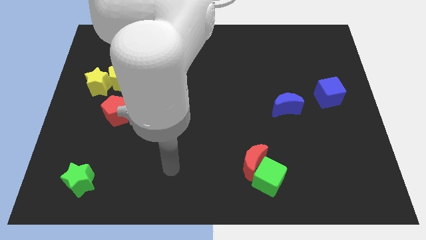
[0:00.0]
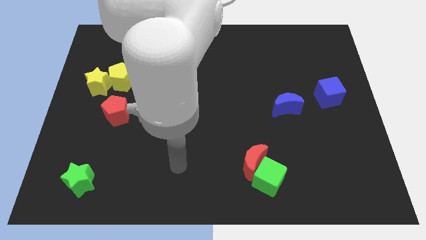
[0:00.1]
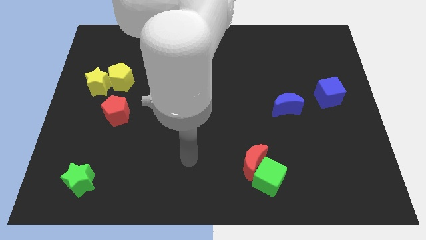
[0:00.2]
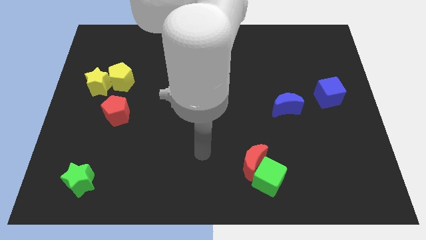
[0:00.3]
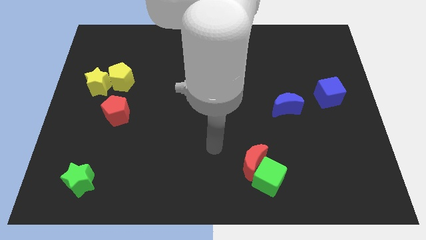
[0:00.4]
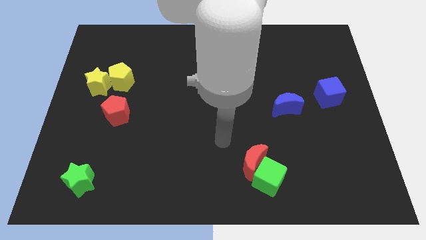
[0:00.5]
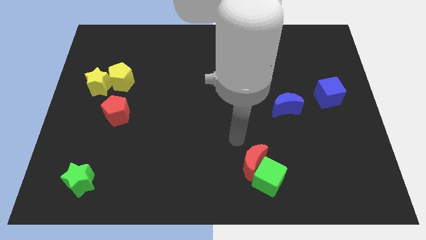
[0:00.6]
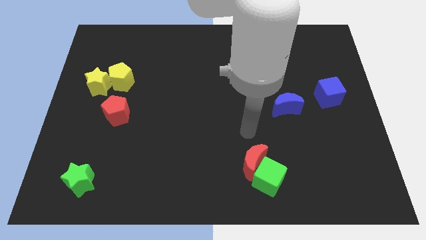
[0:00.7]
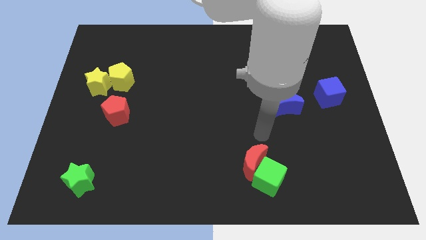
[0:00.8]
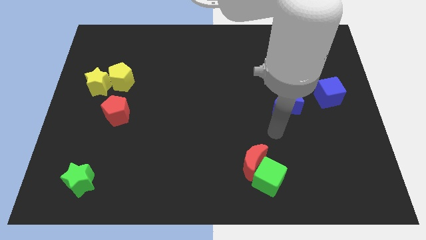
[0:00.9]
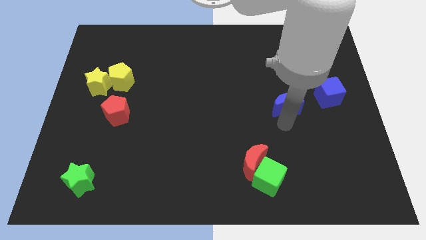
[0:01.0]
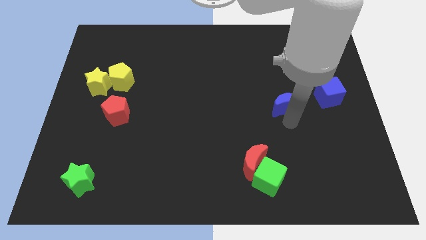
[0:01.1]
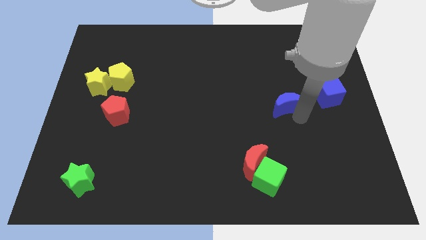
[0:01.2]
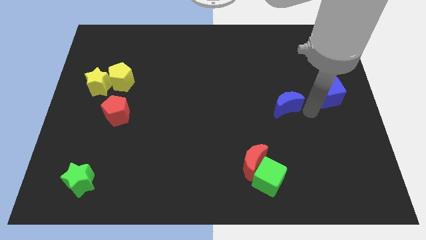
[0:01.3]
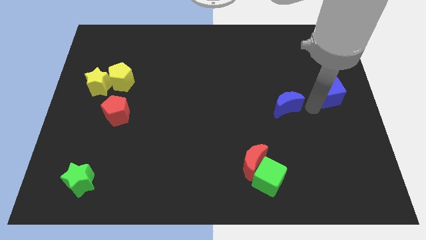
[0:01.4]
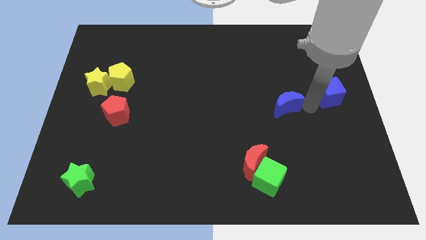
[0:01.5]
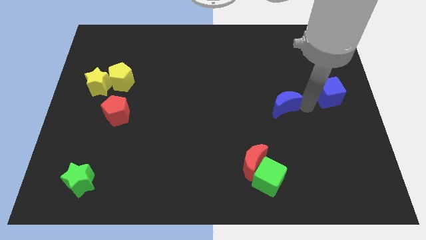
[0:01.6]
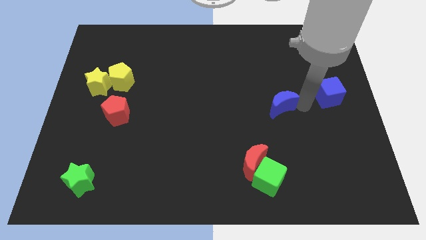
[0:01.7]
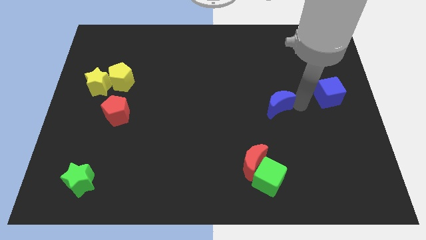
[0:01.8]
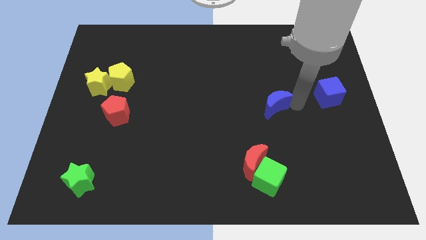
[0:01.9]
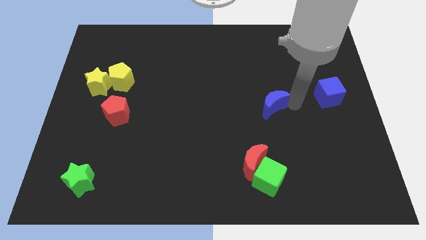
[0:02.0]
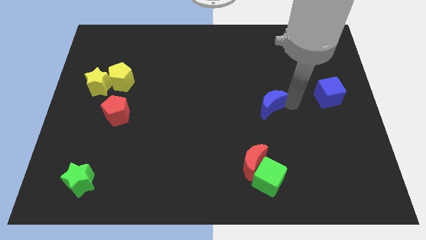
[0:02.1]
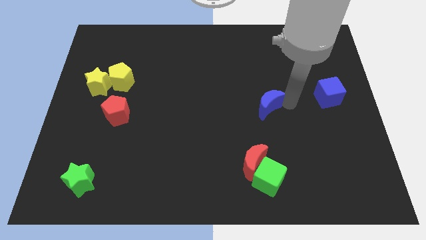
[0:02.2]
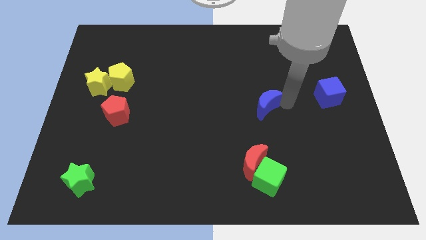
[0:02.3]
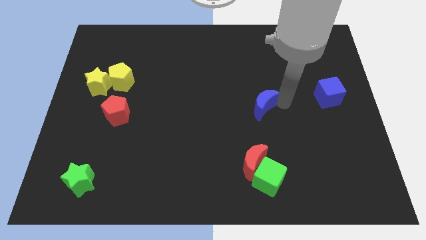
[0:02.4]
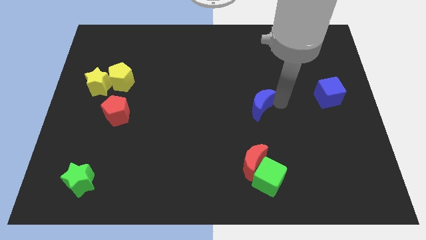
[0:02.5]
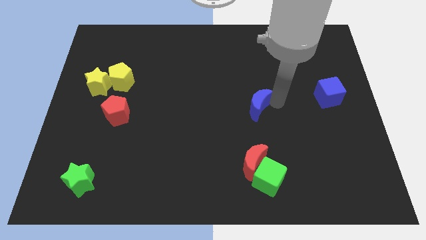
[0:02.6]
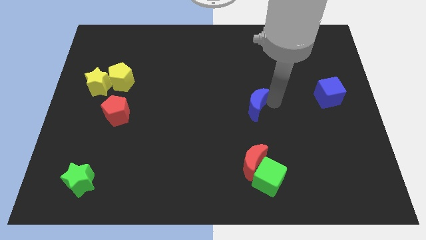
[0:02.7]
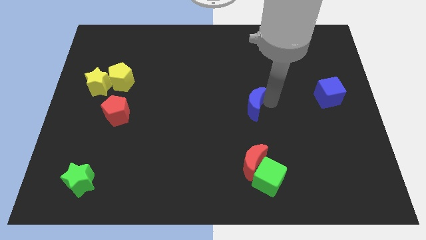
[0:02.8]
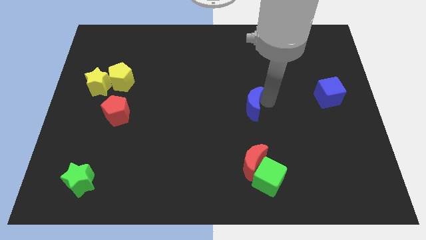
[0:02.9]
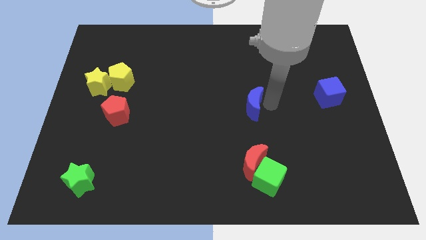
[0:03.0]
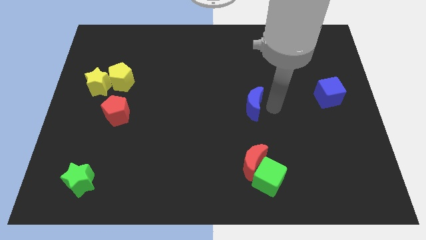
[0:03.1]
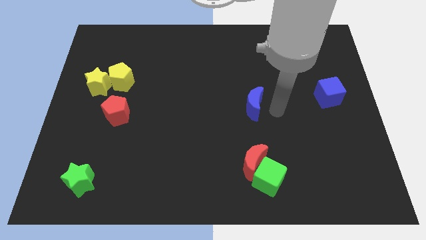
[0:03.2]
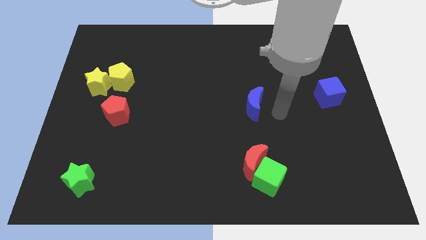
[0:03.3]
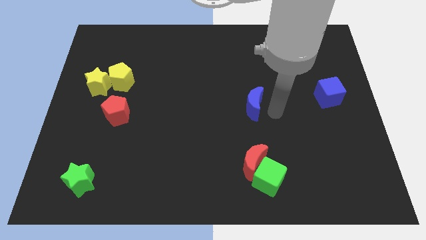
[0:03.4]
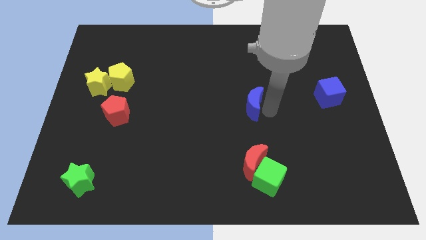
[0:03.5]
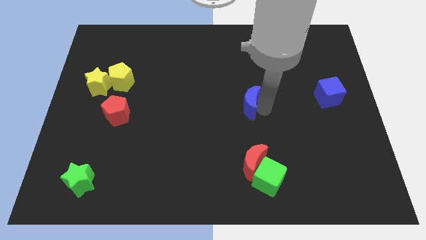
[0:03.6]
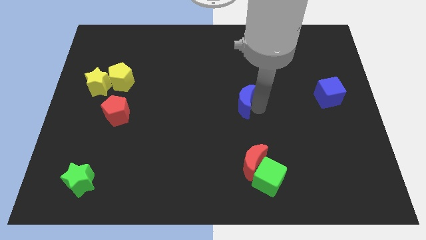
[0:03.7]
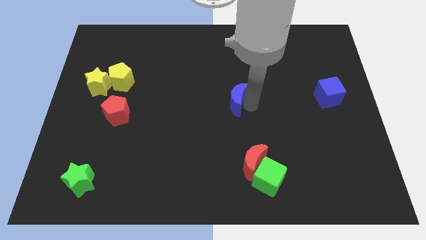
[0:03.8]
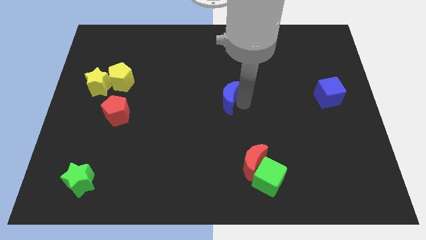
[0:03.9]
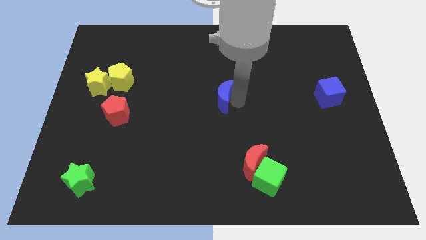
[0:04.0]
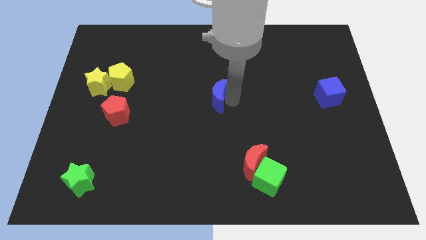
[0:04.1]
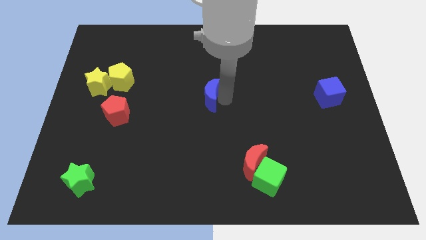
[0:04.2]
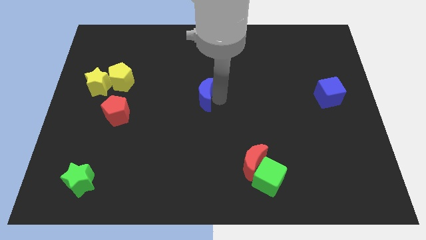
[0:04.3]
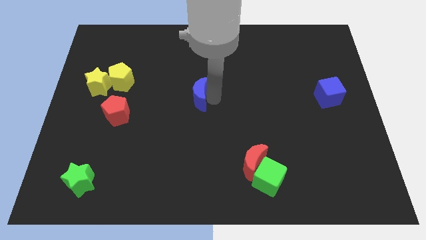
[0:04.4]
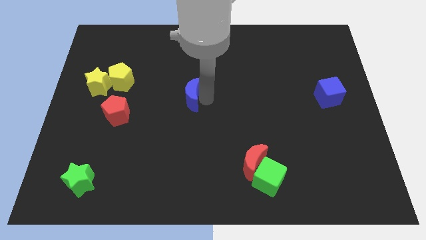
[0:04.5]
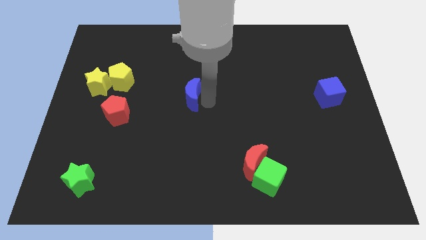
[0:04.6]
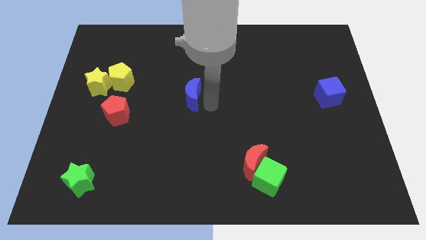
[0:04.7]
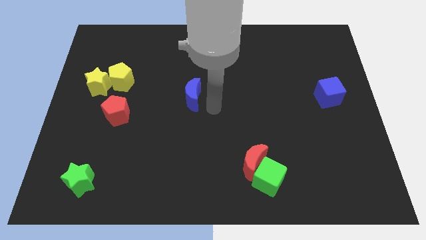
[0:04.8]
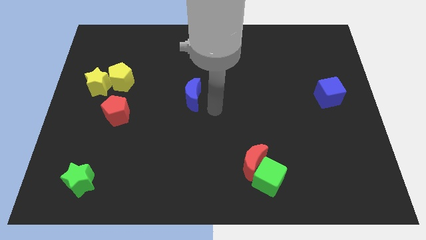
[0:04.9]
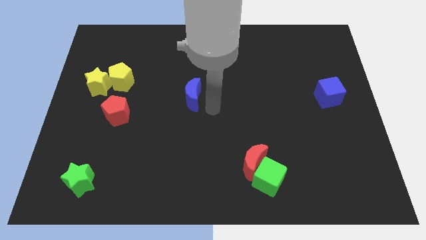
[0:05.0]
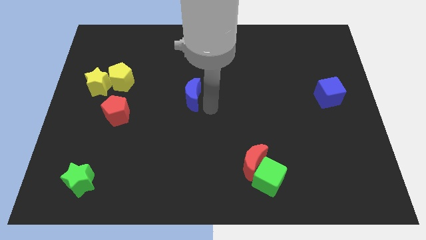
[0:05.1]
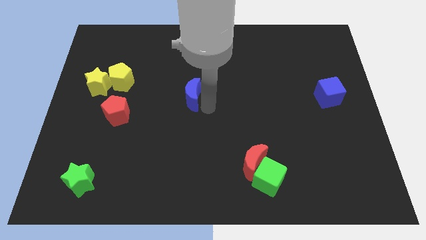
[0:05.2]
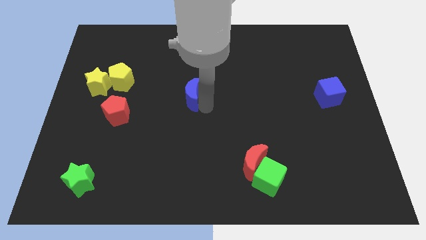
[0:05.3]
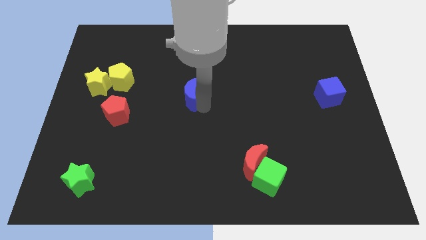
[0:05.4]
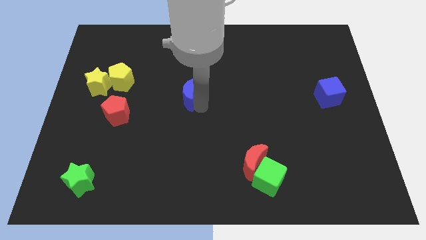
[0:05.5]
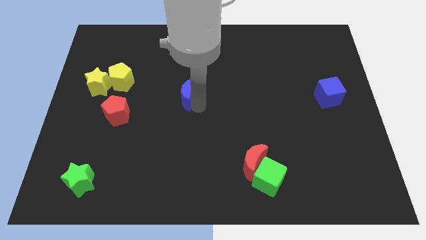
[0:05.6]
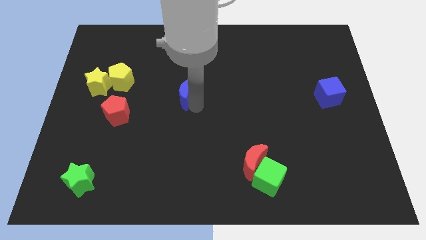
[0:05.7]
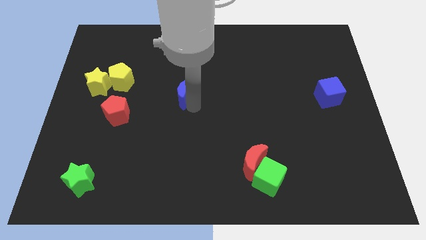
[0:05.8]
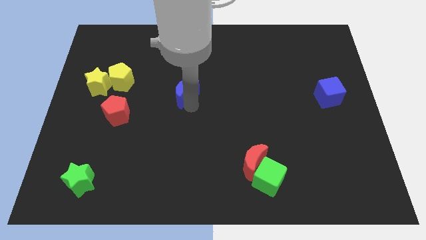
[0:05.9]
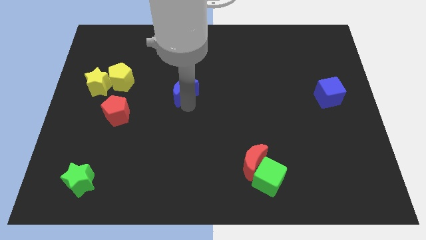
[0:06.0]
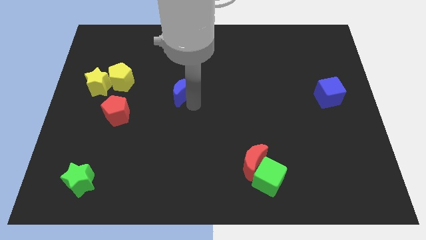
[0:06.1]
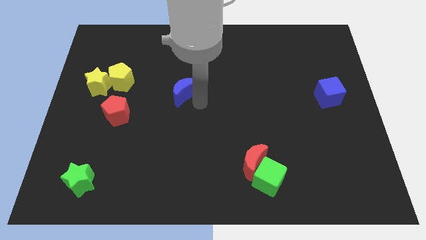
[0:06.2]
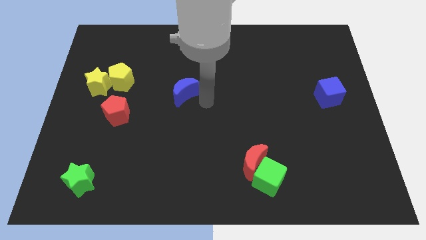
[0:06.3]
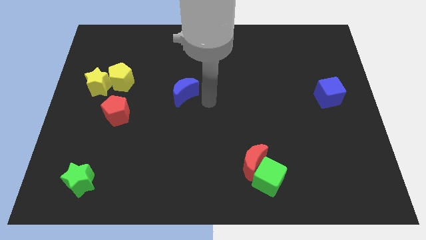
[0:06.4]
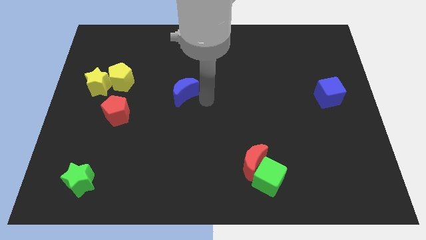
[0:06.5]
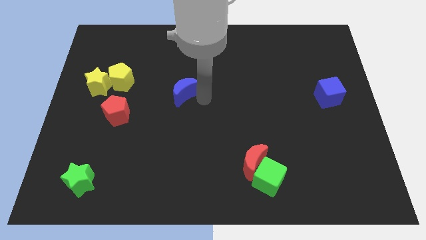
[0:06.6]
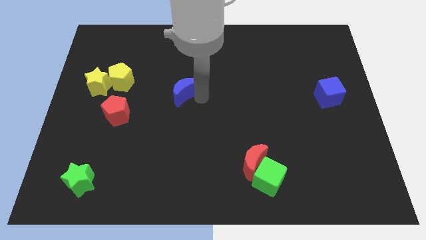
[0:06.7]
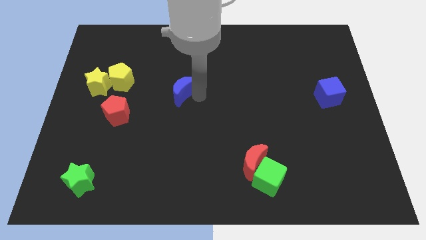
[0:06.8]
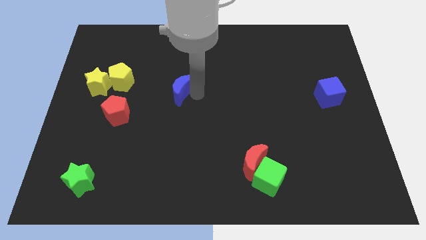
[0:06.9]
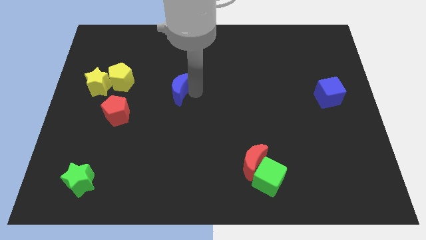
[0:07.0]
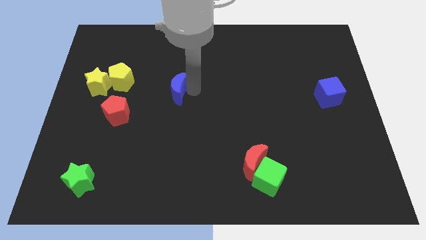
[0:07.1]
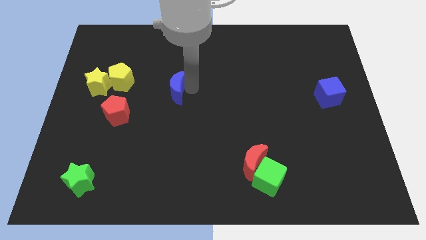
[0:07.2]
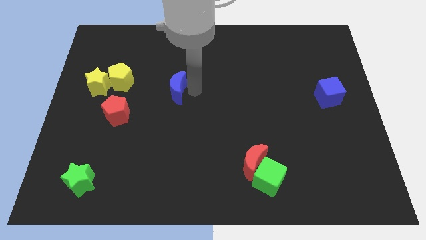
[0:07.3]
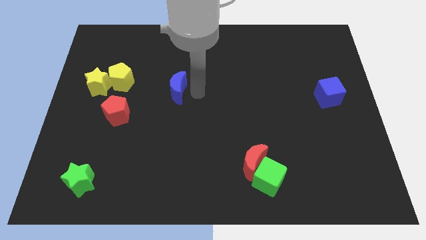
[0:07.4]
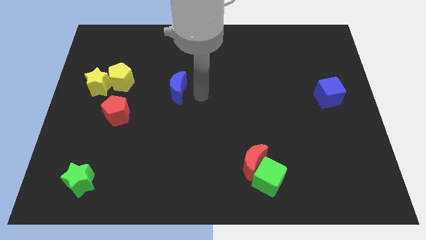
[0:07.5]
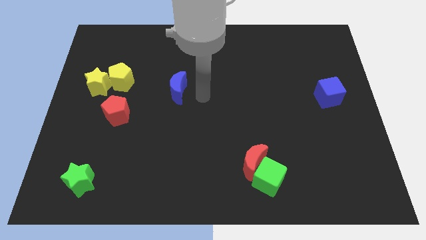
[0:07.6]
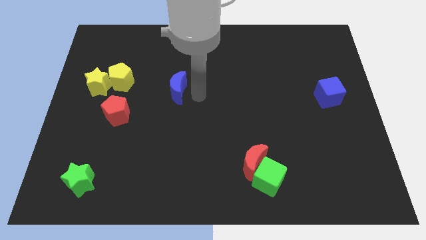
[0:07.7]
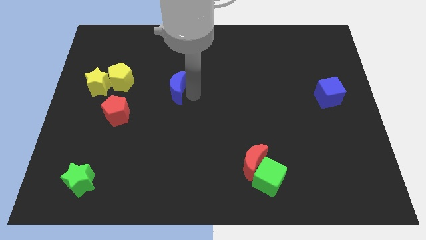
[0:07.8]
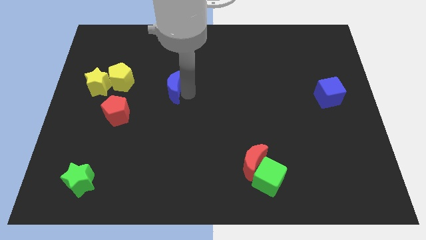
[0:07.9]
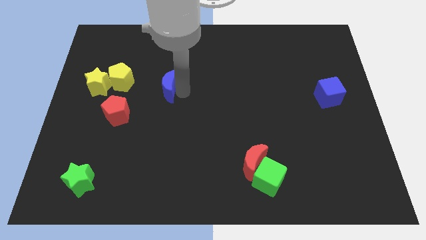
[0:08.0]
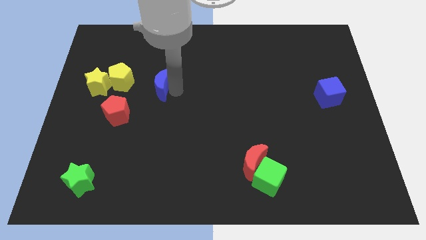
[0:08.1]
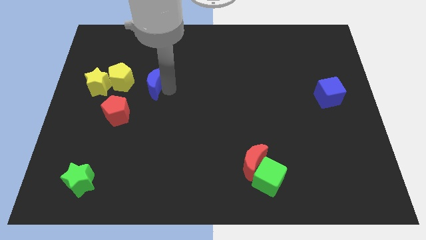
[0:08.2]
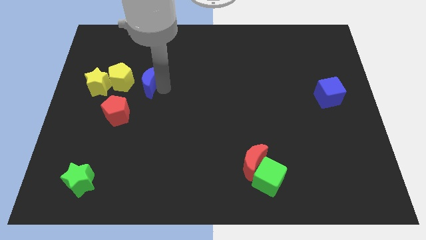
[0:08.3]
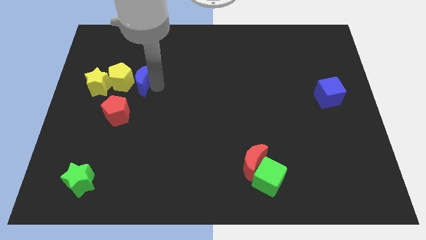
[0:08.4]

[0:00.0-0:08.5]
move the blue moon close to the yellow pentagon
